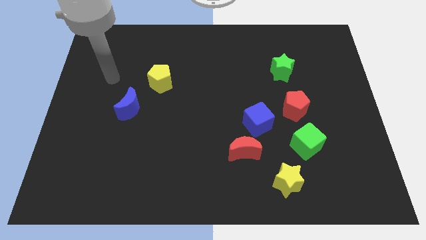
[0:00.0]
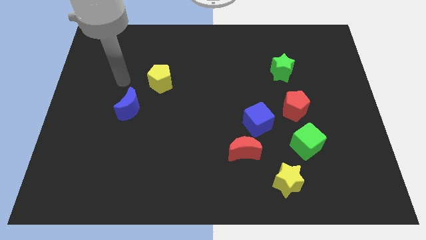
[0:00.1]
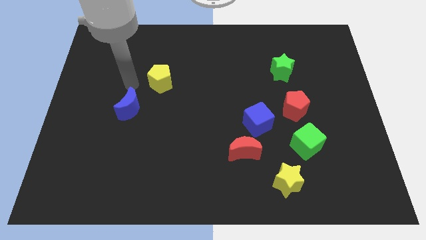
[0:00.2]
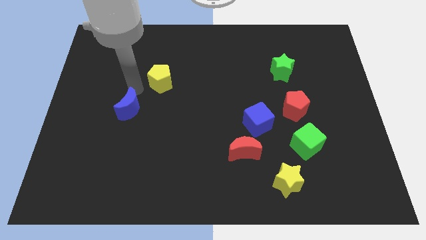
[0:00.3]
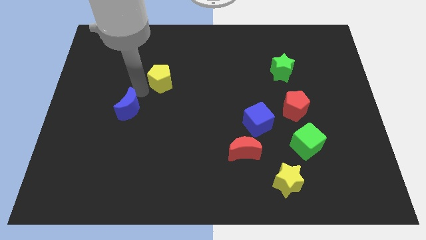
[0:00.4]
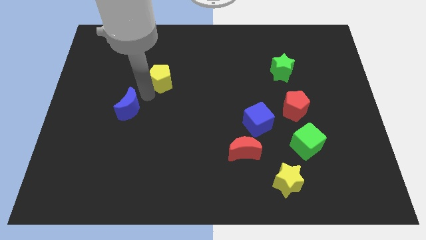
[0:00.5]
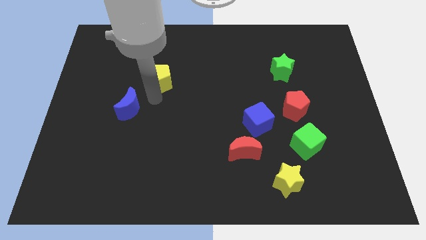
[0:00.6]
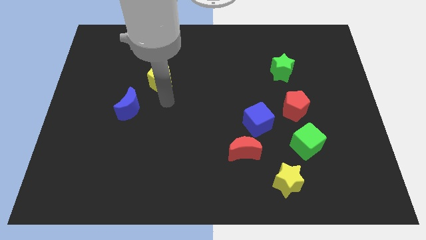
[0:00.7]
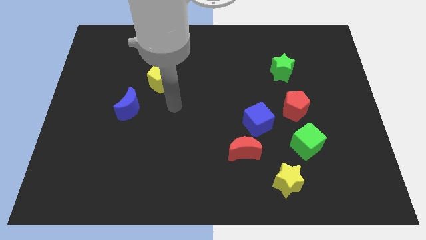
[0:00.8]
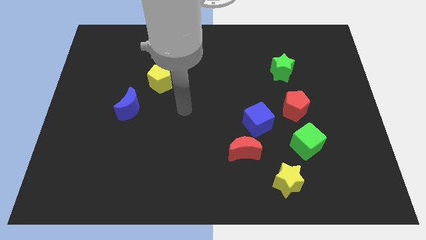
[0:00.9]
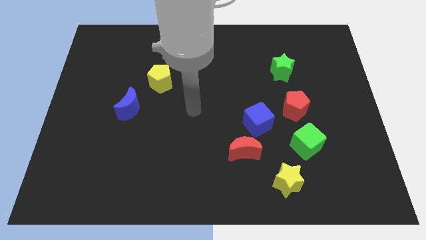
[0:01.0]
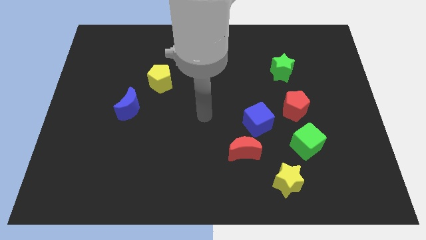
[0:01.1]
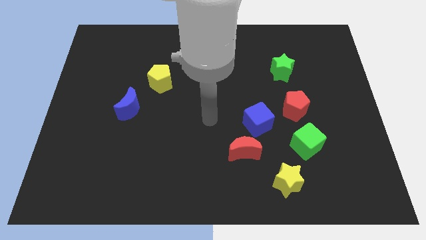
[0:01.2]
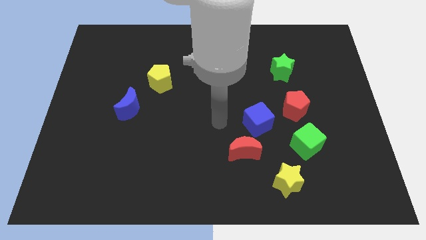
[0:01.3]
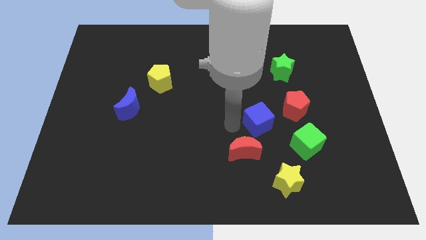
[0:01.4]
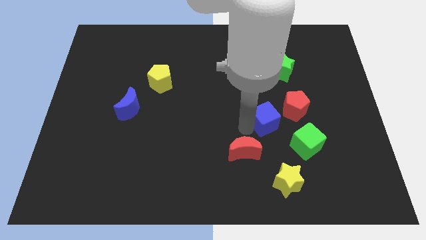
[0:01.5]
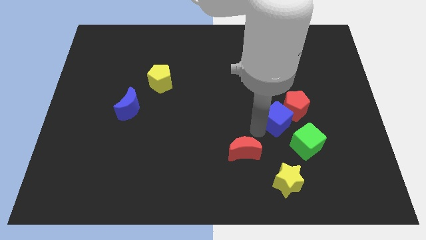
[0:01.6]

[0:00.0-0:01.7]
pull the red moon apart from the blue cube

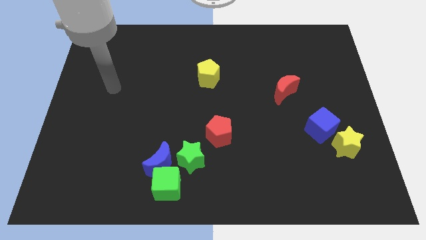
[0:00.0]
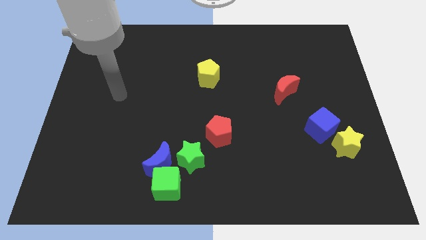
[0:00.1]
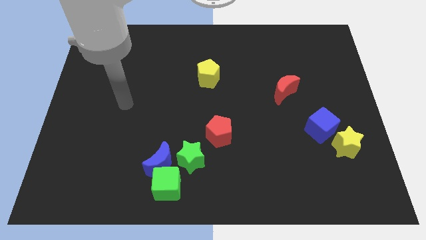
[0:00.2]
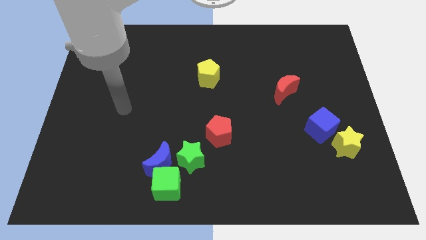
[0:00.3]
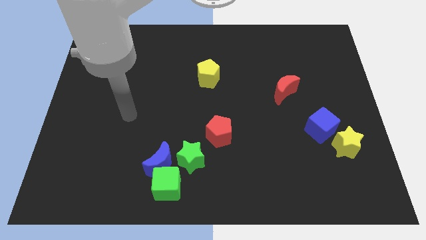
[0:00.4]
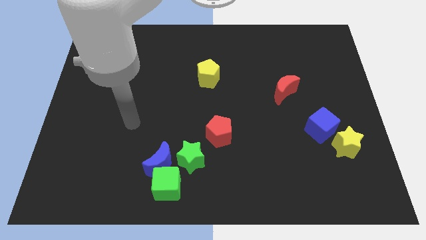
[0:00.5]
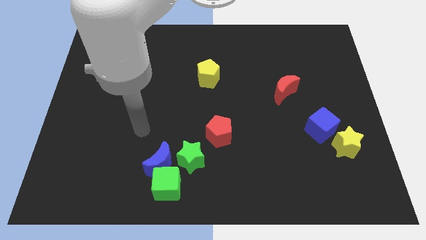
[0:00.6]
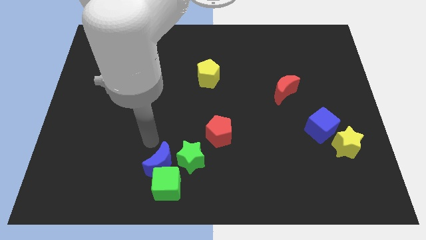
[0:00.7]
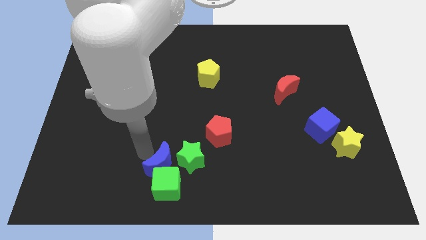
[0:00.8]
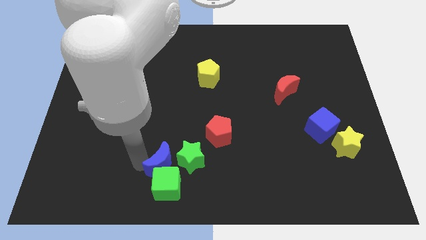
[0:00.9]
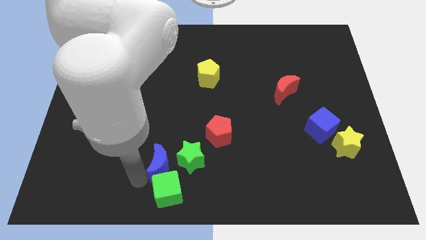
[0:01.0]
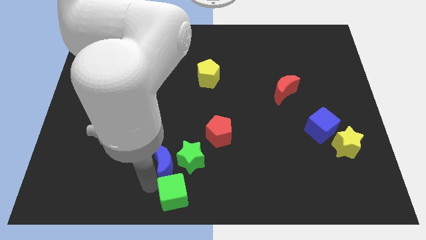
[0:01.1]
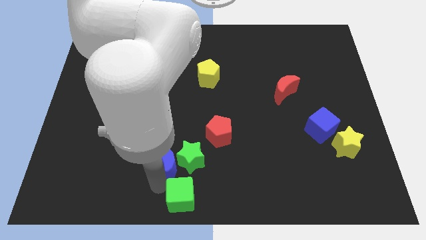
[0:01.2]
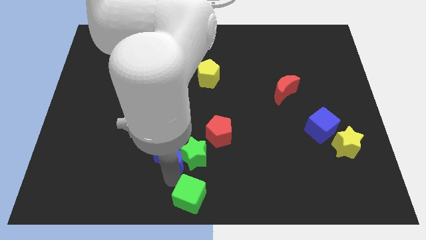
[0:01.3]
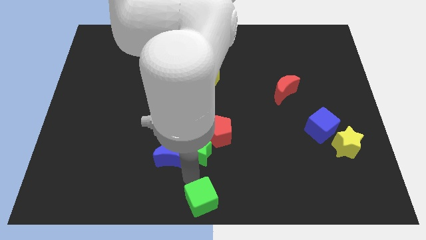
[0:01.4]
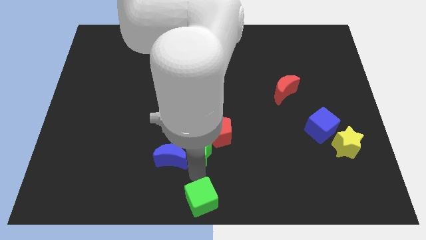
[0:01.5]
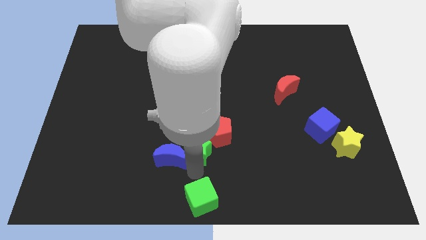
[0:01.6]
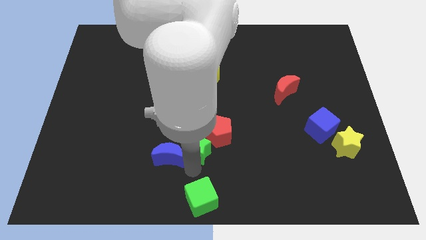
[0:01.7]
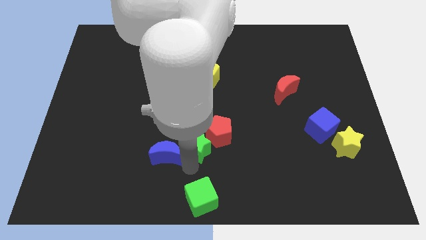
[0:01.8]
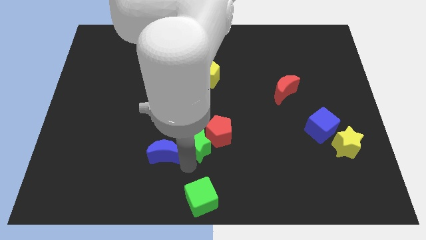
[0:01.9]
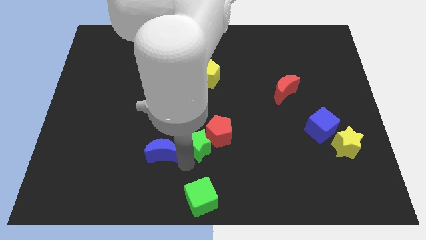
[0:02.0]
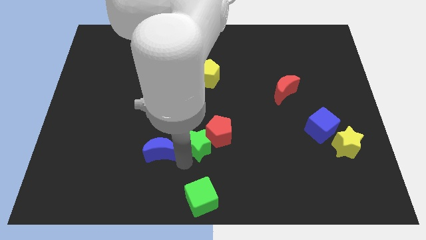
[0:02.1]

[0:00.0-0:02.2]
separate the blue moon from the green cube and green star

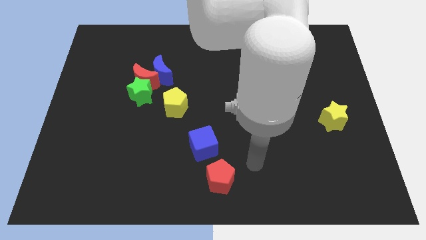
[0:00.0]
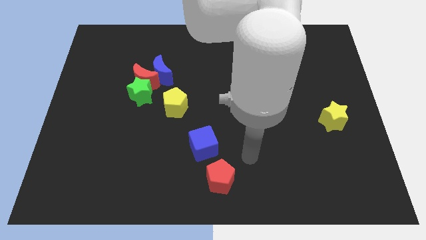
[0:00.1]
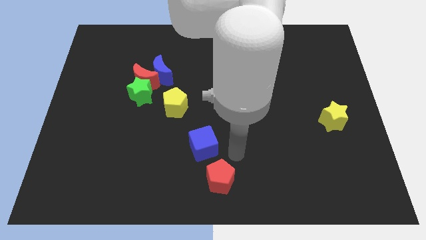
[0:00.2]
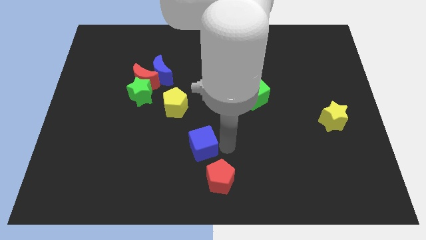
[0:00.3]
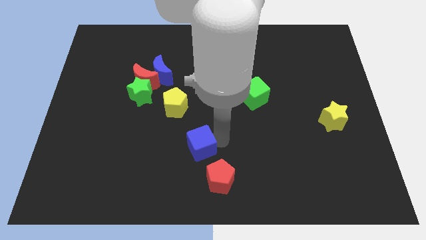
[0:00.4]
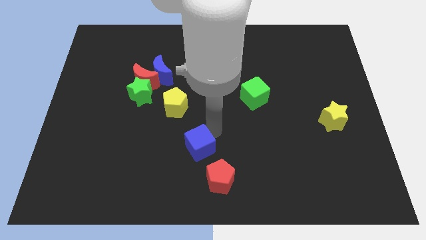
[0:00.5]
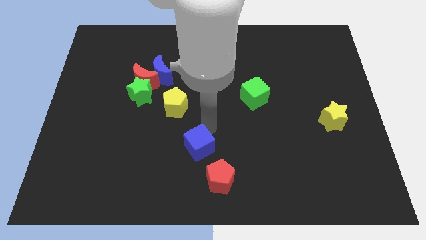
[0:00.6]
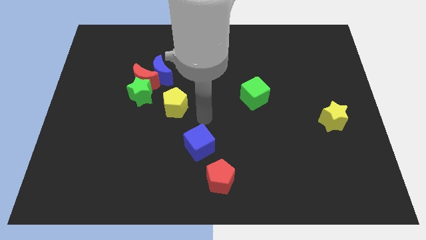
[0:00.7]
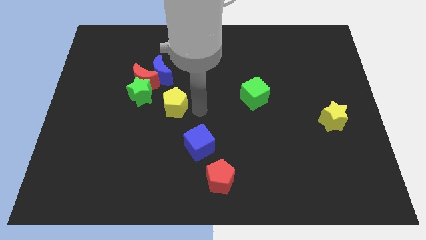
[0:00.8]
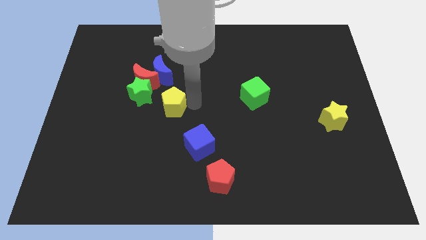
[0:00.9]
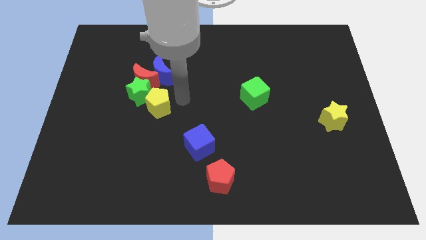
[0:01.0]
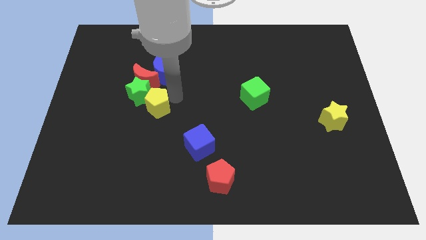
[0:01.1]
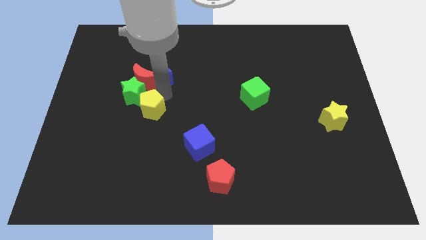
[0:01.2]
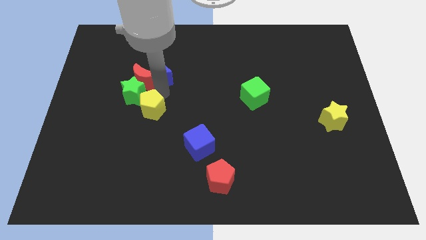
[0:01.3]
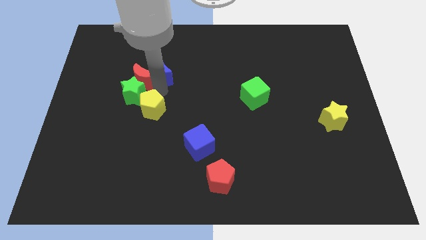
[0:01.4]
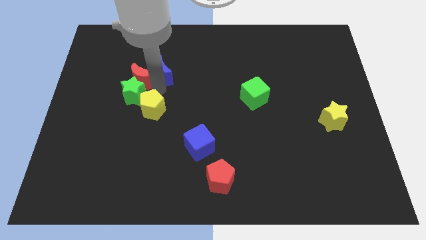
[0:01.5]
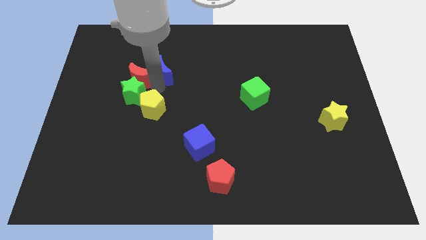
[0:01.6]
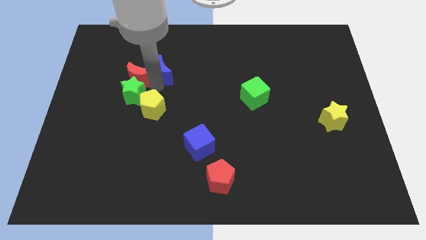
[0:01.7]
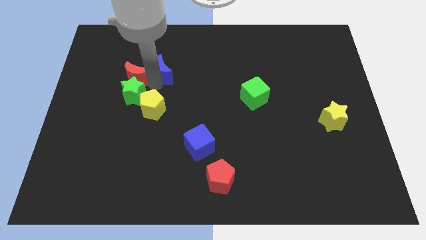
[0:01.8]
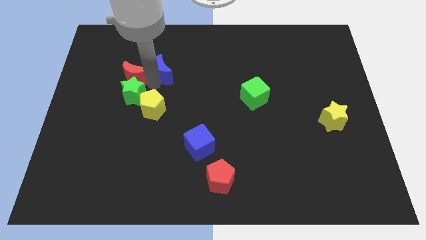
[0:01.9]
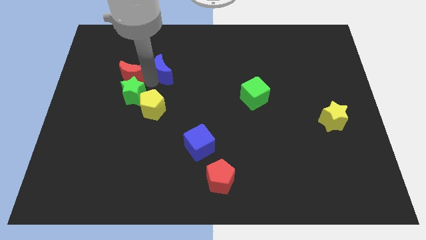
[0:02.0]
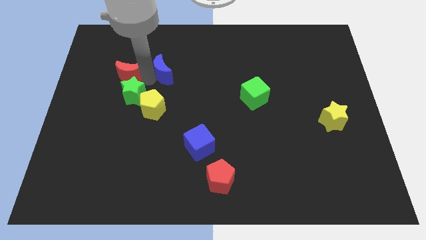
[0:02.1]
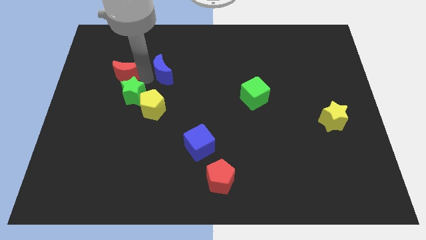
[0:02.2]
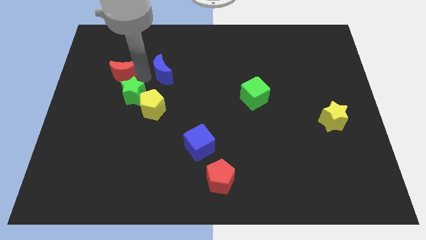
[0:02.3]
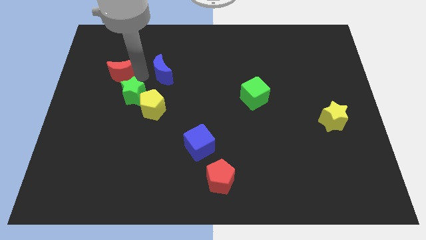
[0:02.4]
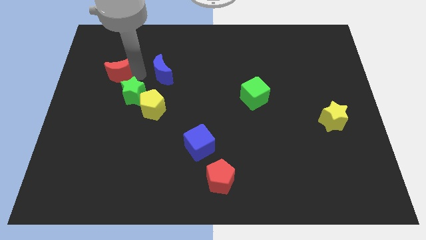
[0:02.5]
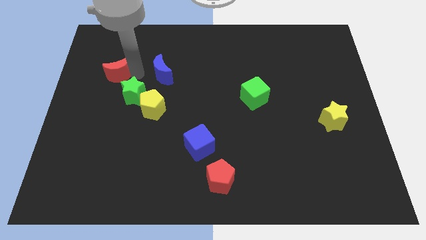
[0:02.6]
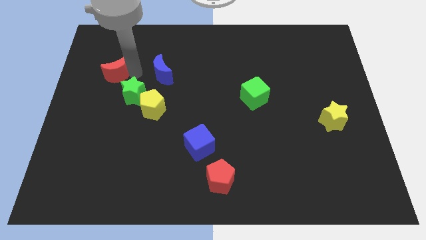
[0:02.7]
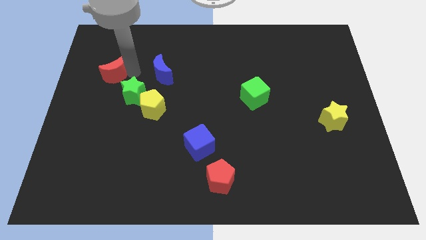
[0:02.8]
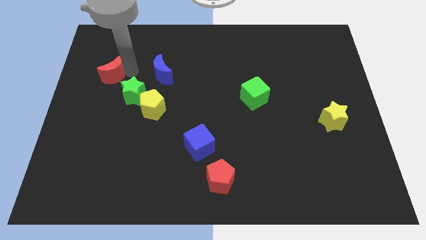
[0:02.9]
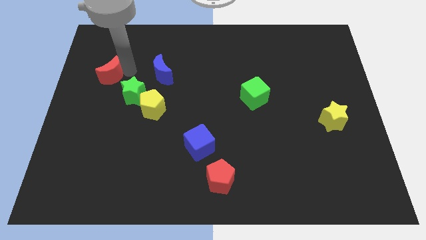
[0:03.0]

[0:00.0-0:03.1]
pull the red moon apart from the green star and blue moon

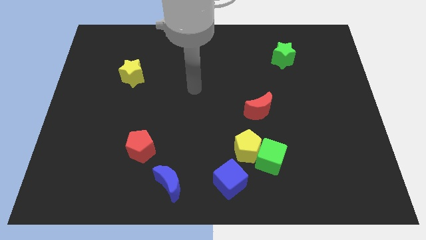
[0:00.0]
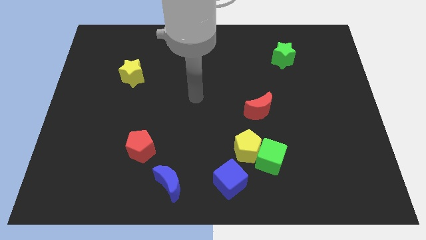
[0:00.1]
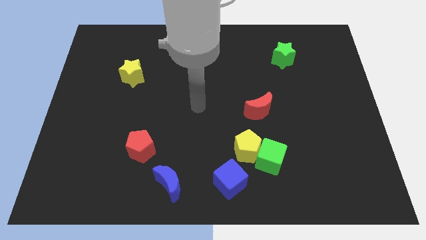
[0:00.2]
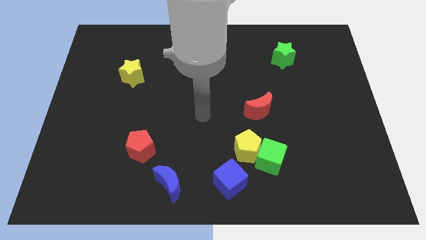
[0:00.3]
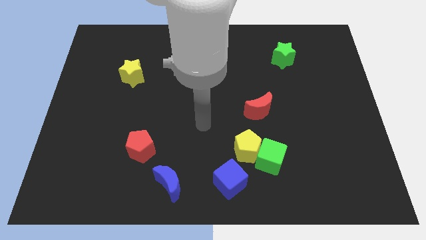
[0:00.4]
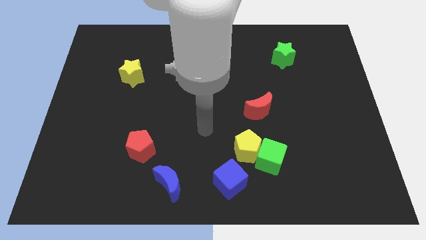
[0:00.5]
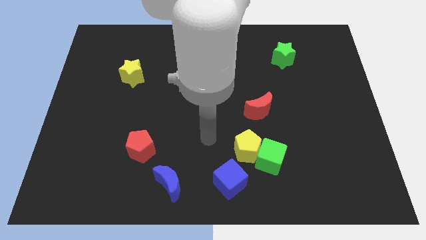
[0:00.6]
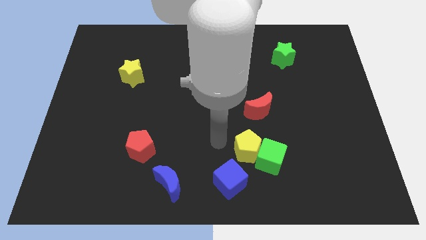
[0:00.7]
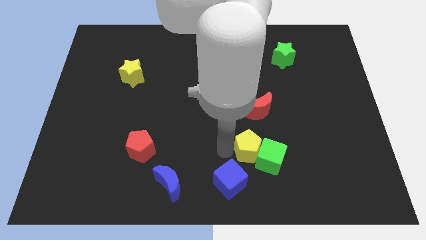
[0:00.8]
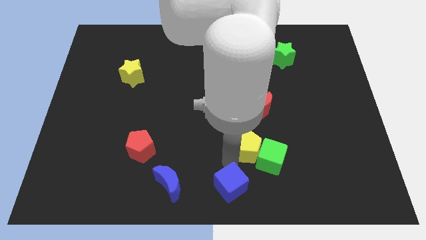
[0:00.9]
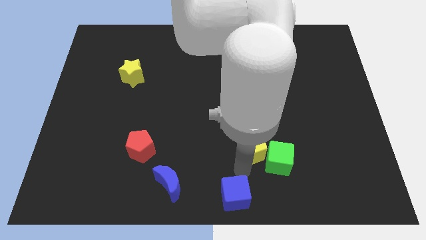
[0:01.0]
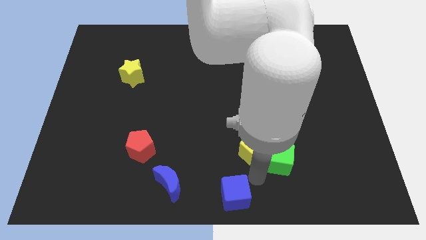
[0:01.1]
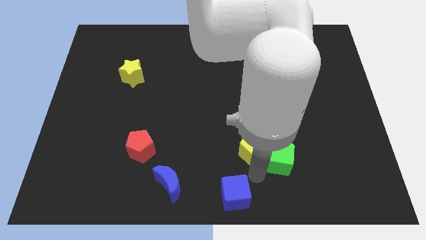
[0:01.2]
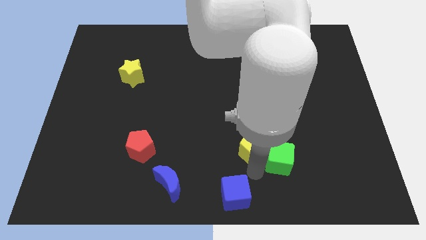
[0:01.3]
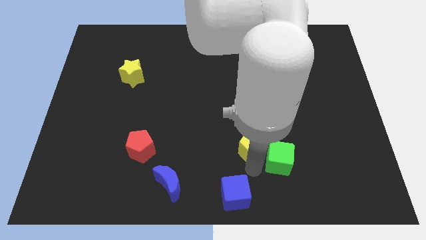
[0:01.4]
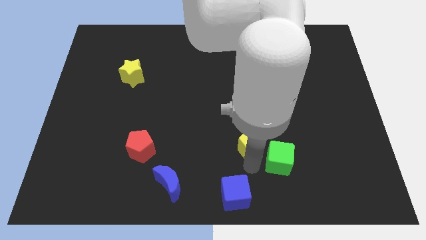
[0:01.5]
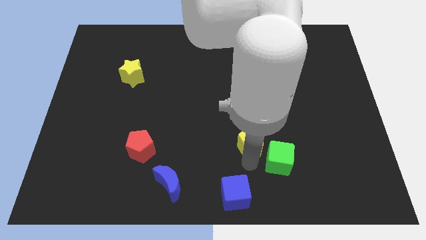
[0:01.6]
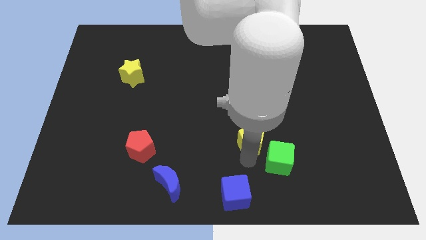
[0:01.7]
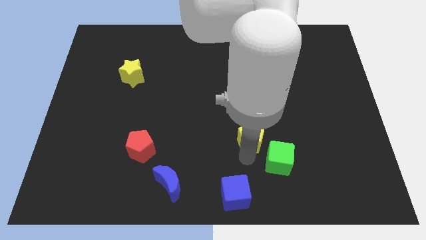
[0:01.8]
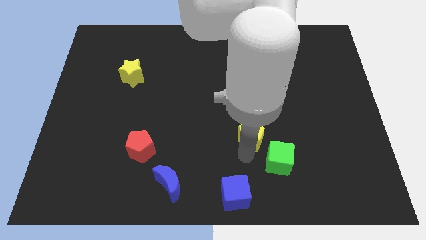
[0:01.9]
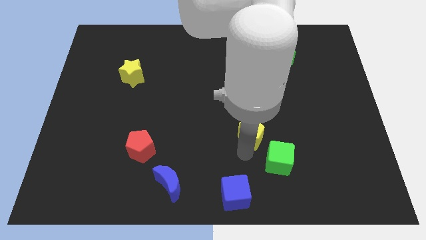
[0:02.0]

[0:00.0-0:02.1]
separate the yellow pentagon from the green cube and blue cube

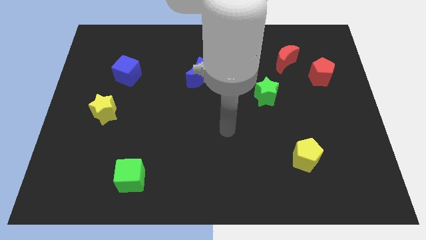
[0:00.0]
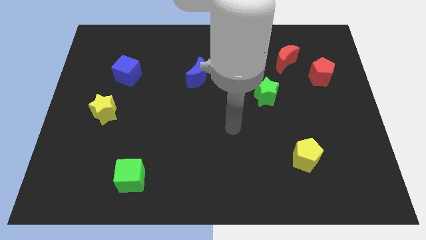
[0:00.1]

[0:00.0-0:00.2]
separate the red moon from the red pentagon
